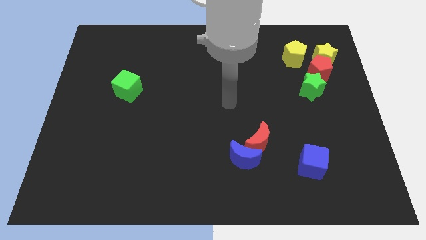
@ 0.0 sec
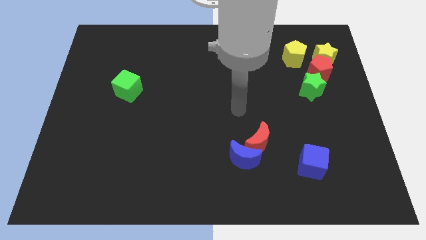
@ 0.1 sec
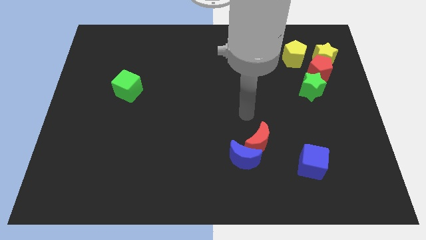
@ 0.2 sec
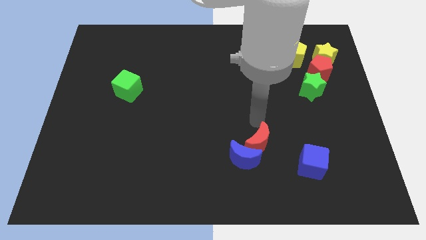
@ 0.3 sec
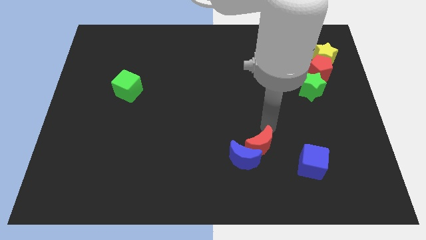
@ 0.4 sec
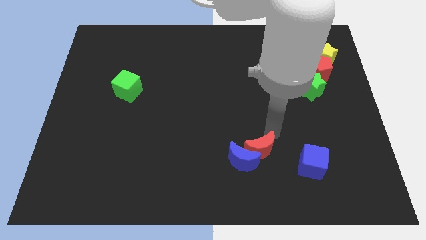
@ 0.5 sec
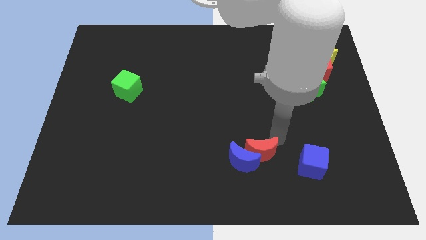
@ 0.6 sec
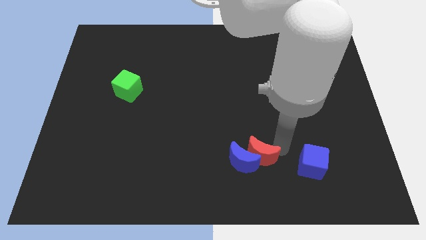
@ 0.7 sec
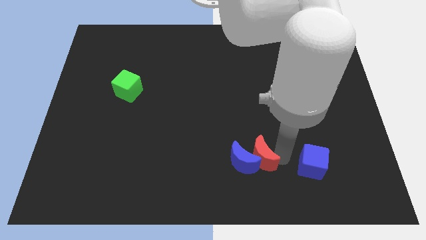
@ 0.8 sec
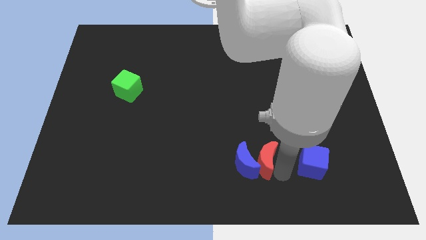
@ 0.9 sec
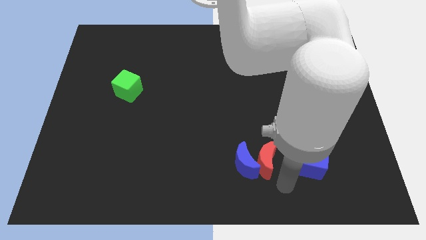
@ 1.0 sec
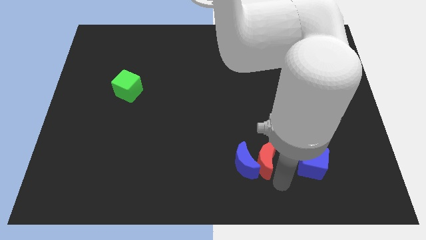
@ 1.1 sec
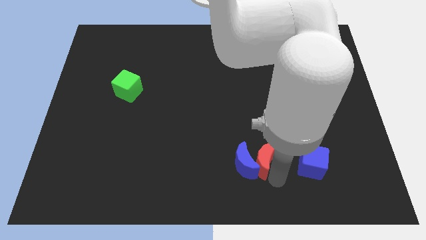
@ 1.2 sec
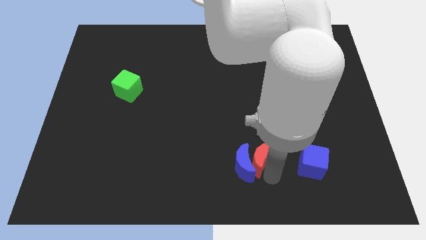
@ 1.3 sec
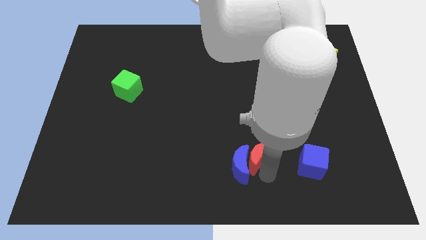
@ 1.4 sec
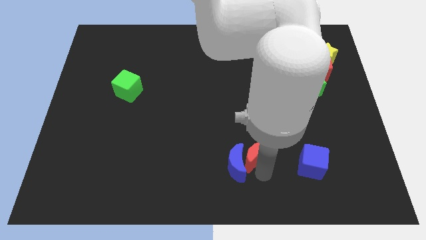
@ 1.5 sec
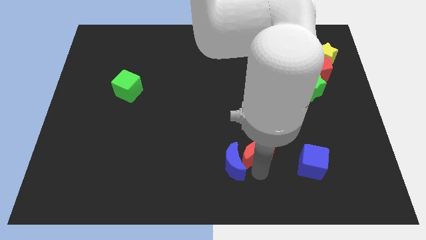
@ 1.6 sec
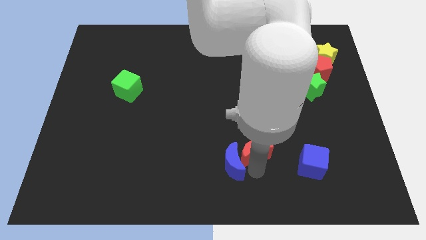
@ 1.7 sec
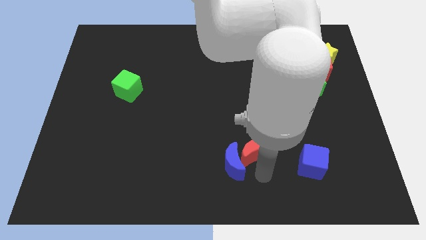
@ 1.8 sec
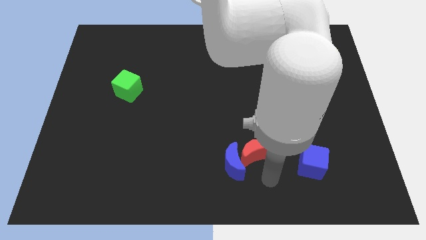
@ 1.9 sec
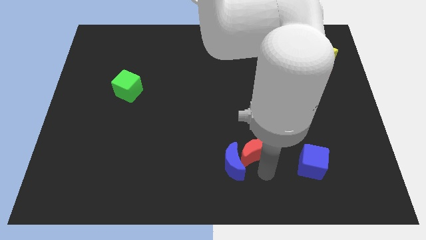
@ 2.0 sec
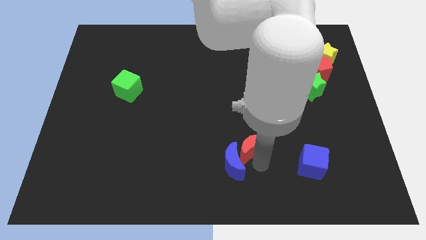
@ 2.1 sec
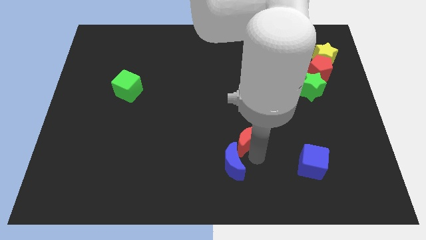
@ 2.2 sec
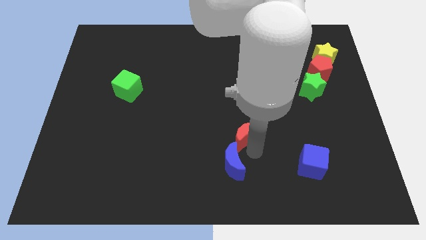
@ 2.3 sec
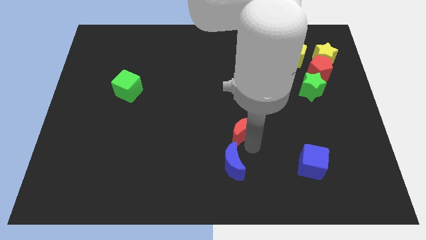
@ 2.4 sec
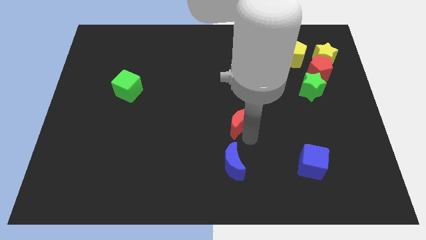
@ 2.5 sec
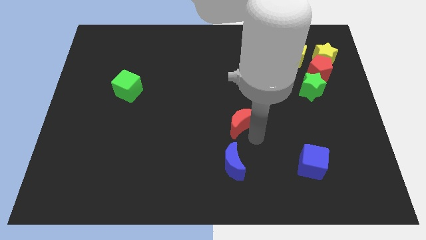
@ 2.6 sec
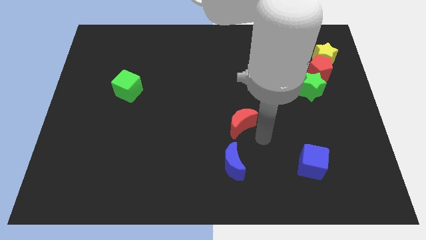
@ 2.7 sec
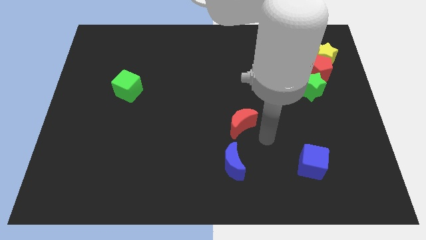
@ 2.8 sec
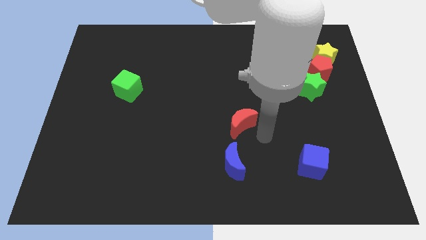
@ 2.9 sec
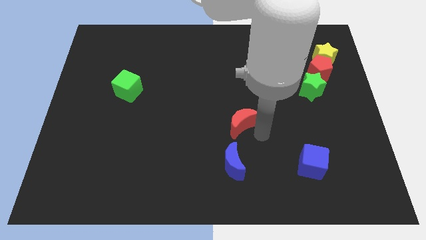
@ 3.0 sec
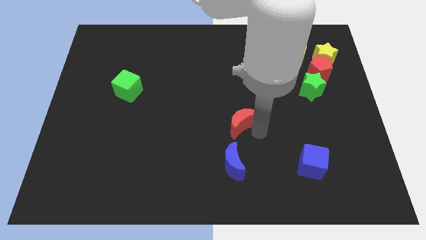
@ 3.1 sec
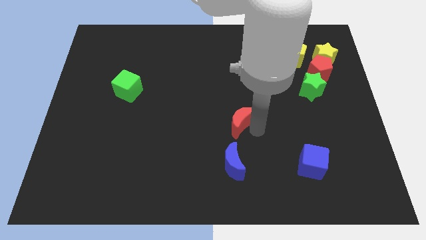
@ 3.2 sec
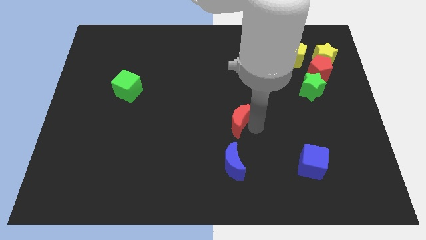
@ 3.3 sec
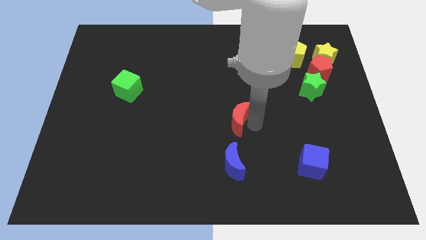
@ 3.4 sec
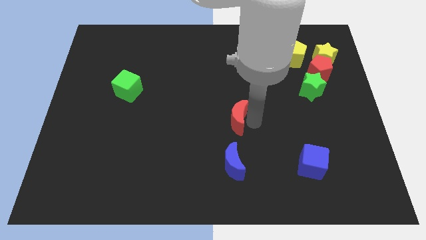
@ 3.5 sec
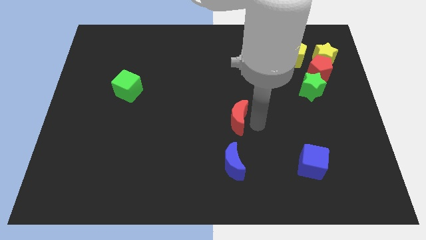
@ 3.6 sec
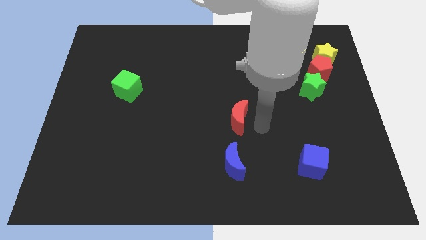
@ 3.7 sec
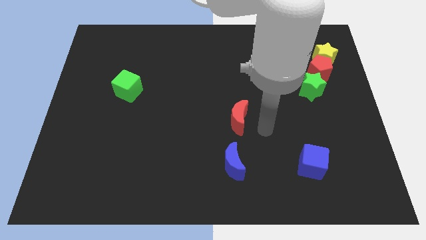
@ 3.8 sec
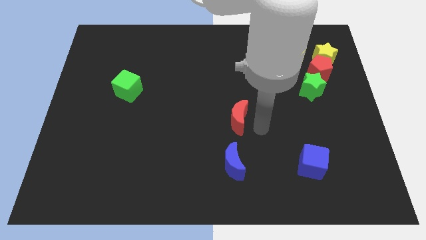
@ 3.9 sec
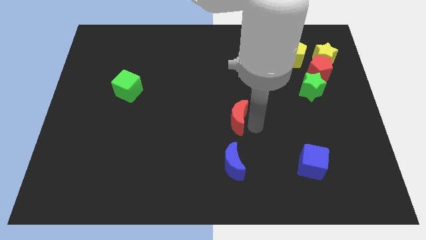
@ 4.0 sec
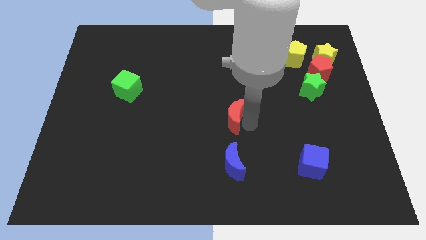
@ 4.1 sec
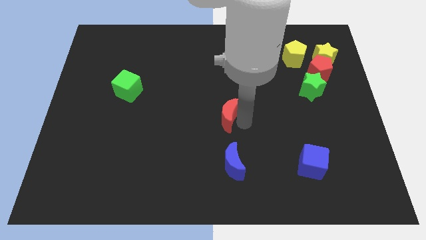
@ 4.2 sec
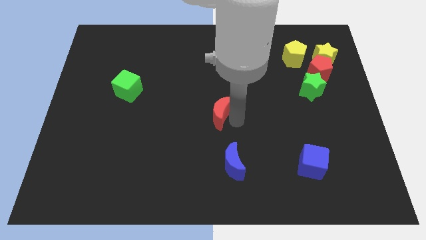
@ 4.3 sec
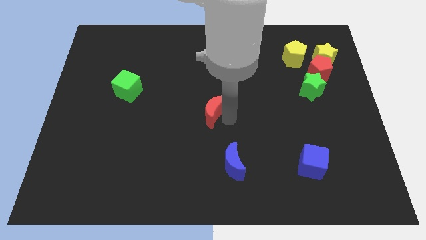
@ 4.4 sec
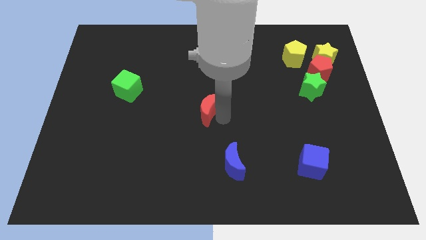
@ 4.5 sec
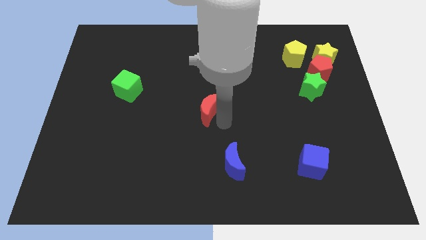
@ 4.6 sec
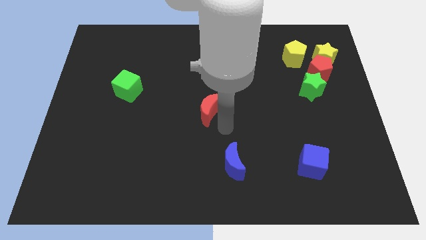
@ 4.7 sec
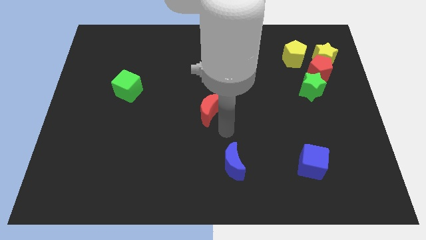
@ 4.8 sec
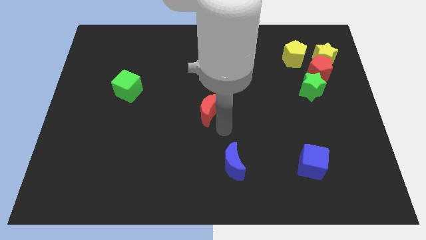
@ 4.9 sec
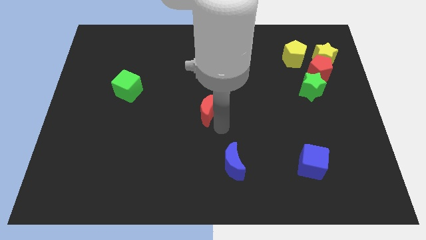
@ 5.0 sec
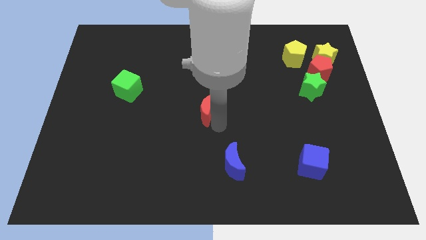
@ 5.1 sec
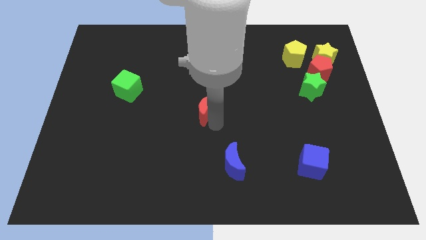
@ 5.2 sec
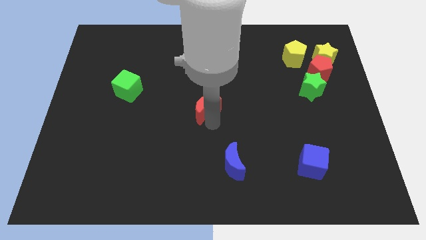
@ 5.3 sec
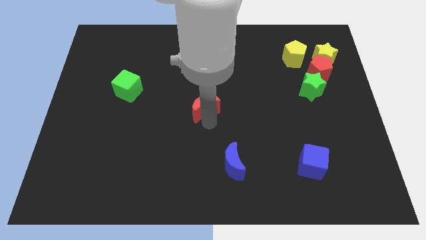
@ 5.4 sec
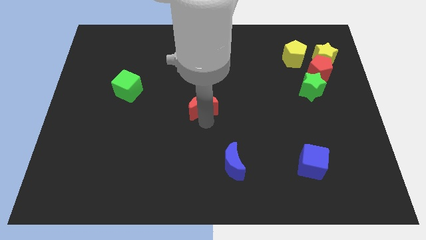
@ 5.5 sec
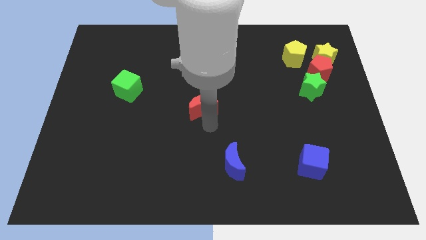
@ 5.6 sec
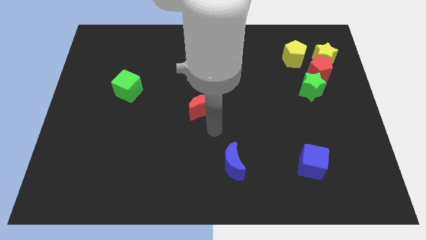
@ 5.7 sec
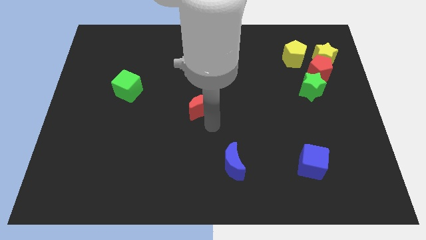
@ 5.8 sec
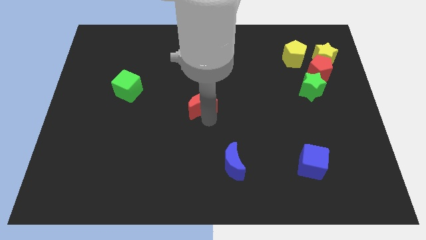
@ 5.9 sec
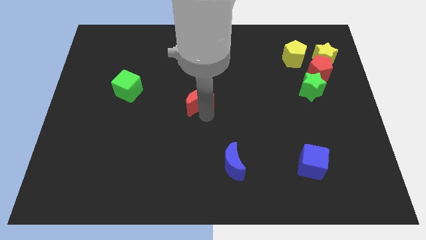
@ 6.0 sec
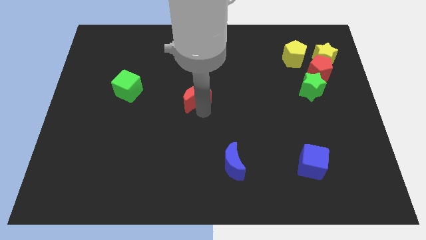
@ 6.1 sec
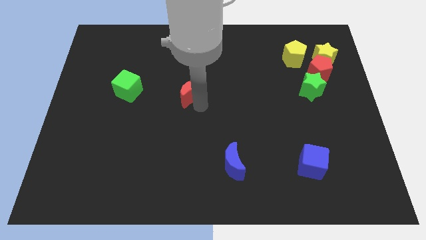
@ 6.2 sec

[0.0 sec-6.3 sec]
move the red moon diagonally upwards and to the left

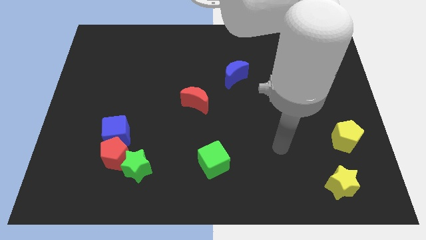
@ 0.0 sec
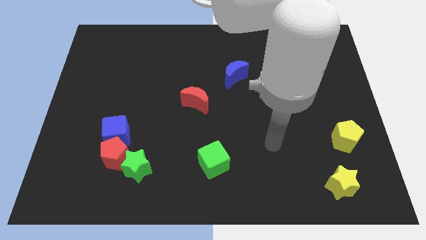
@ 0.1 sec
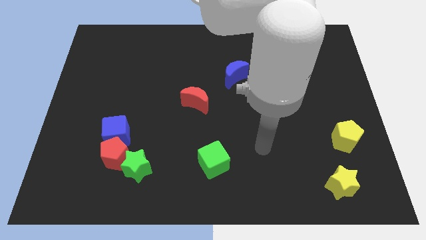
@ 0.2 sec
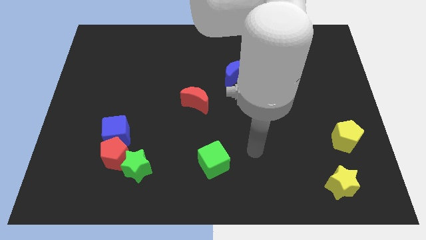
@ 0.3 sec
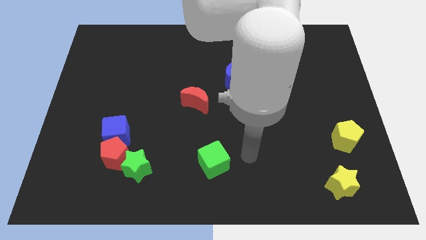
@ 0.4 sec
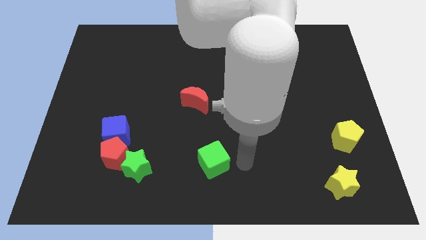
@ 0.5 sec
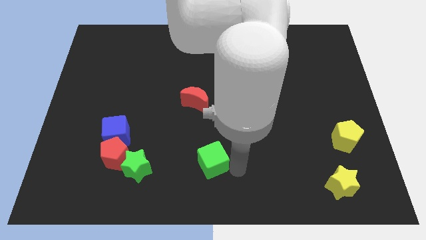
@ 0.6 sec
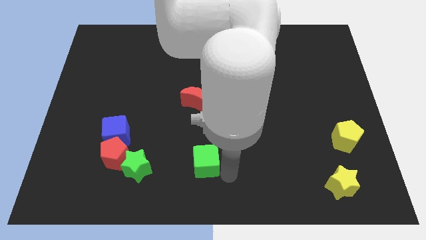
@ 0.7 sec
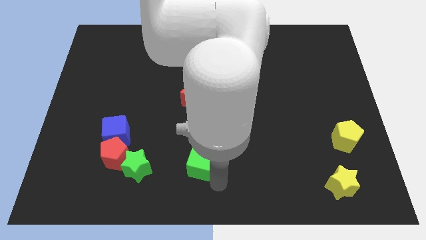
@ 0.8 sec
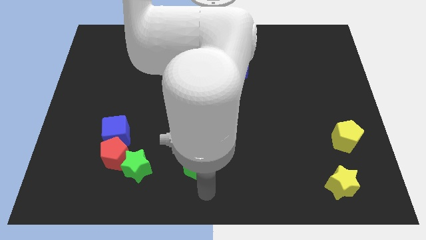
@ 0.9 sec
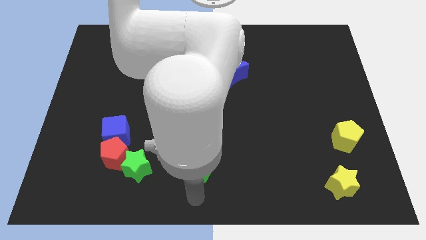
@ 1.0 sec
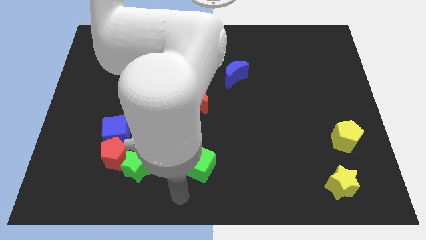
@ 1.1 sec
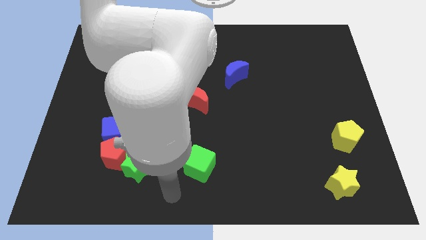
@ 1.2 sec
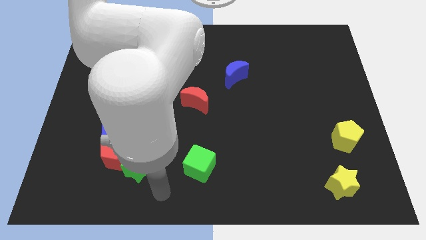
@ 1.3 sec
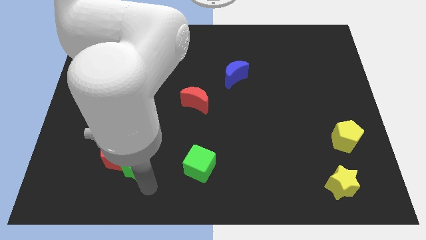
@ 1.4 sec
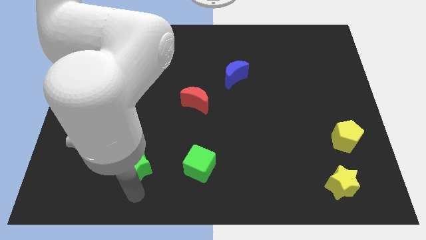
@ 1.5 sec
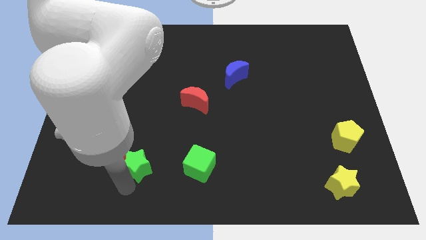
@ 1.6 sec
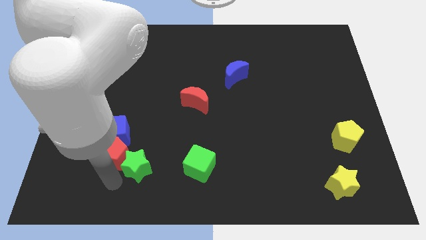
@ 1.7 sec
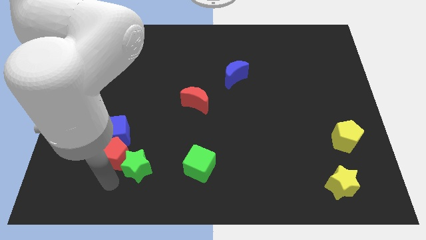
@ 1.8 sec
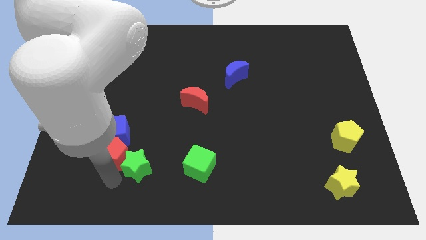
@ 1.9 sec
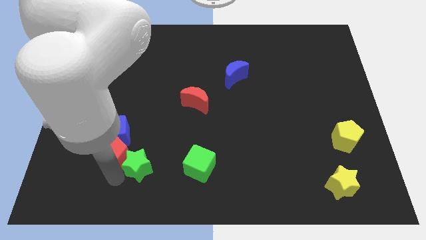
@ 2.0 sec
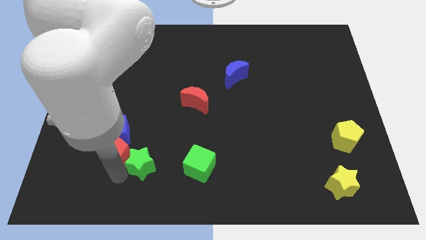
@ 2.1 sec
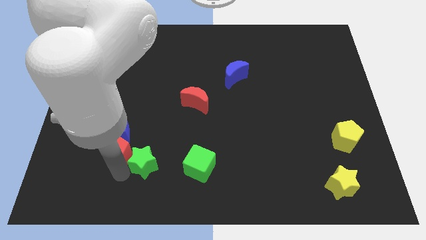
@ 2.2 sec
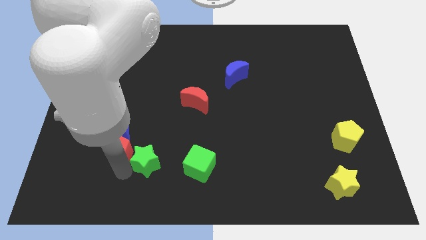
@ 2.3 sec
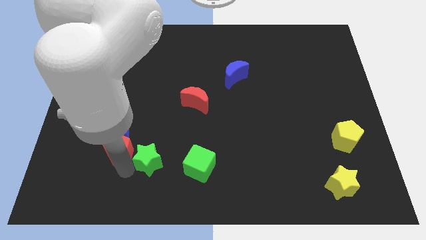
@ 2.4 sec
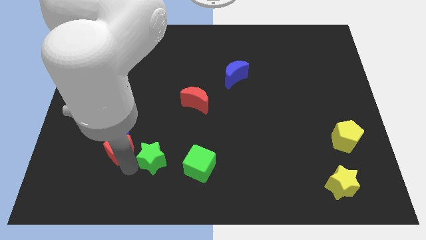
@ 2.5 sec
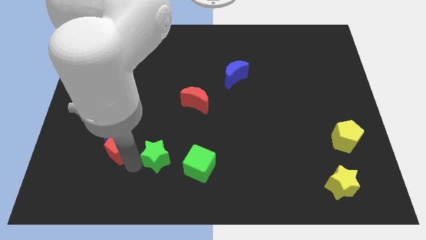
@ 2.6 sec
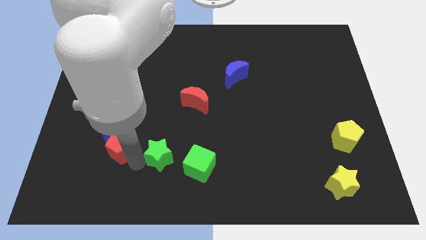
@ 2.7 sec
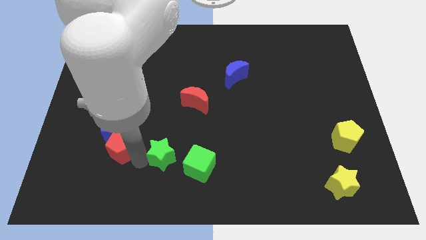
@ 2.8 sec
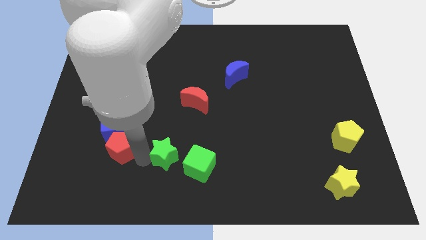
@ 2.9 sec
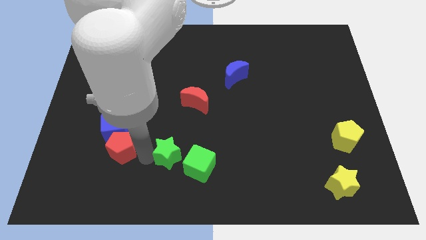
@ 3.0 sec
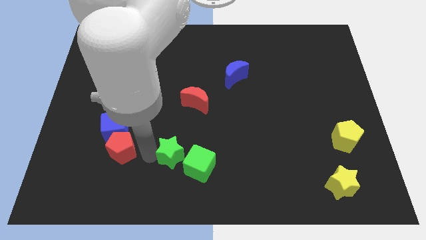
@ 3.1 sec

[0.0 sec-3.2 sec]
push the green star slightly up and to the right diagonally
